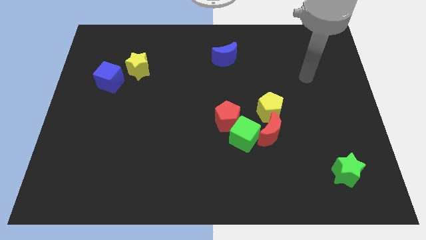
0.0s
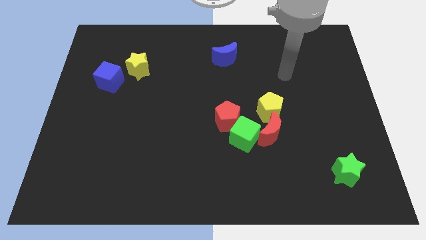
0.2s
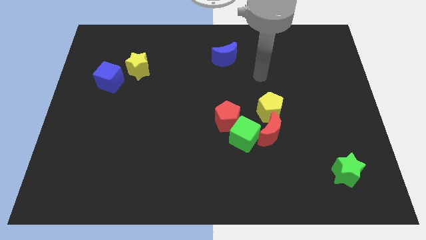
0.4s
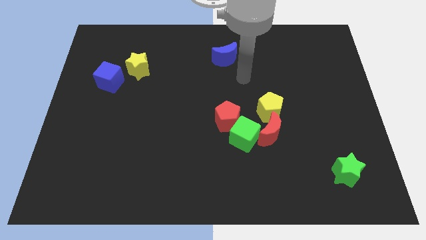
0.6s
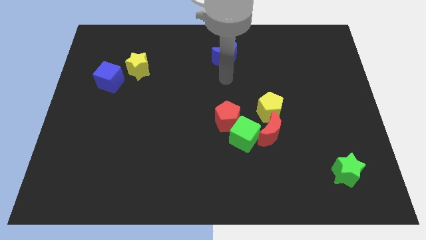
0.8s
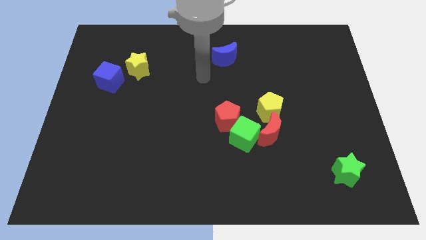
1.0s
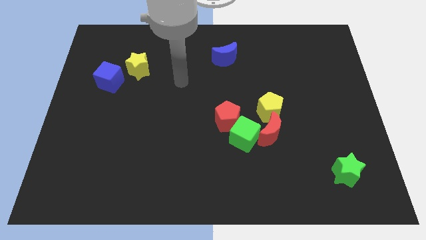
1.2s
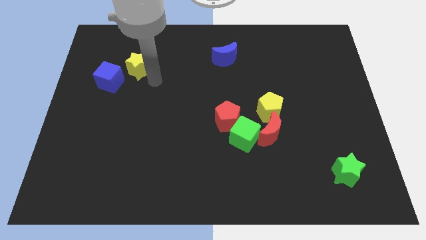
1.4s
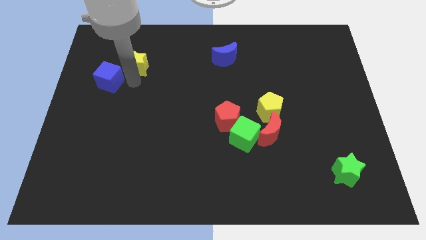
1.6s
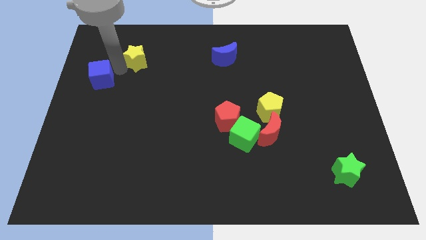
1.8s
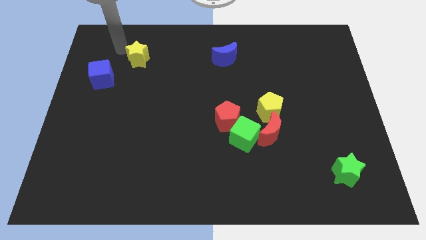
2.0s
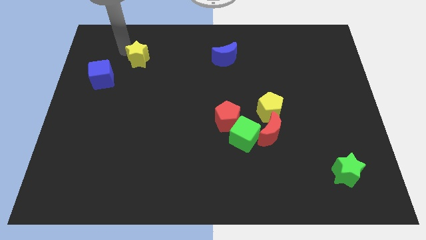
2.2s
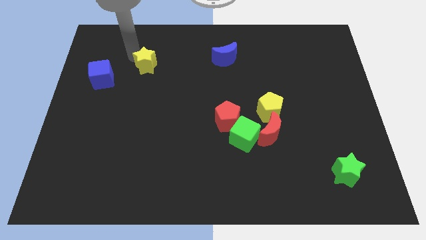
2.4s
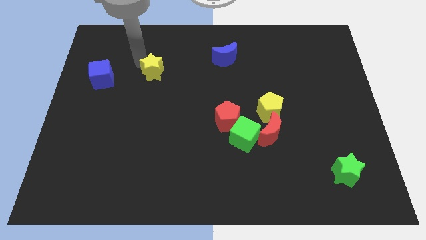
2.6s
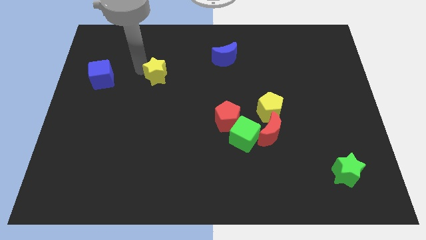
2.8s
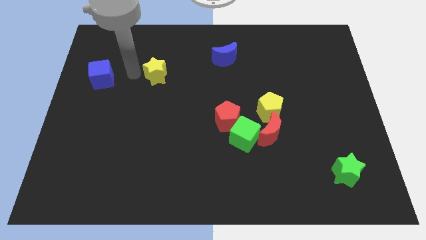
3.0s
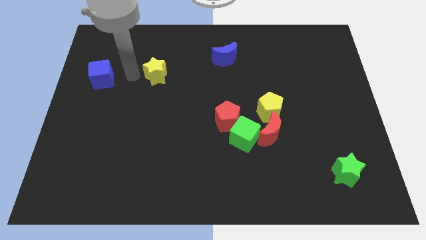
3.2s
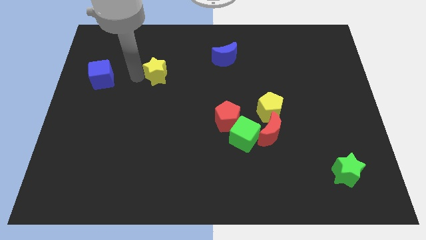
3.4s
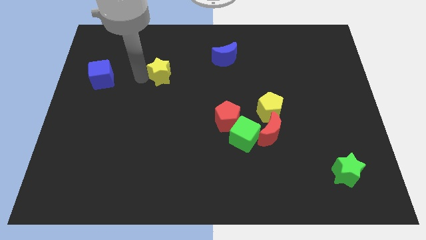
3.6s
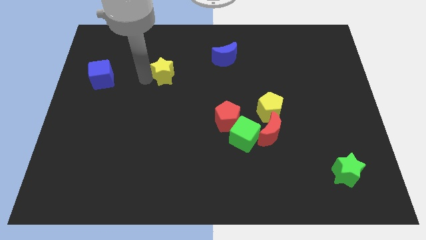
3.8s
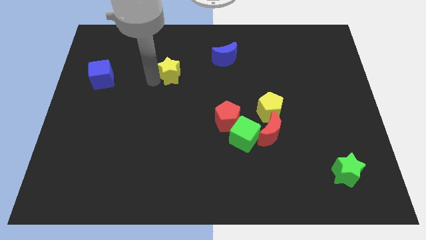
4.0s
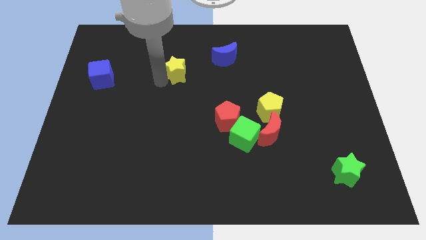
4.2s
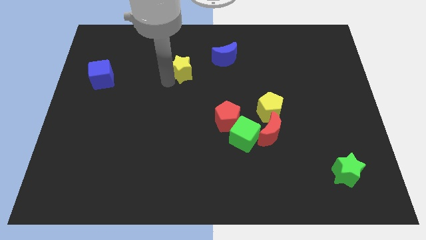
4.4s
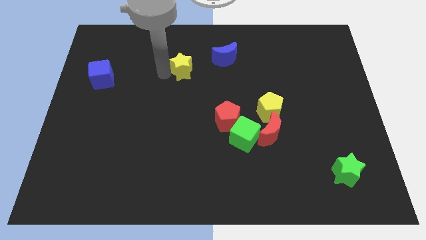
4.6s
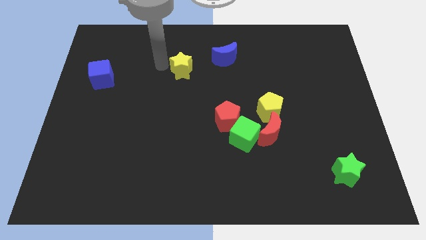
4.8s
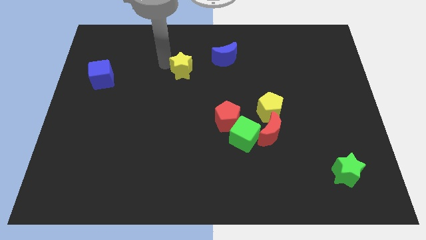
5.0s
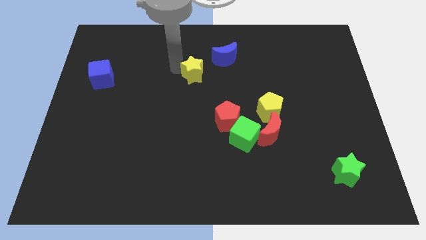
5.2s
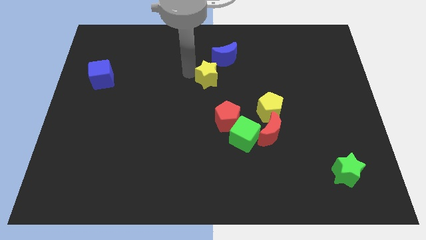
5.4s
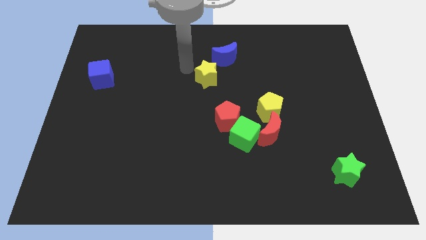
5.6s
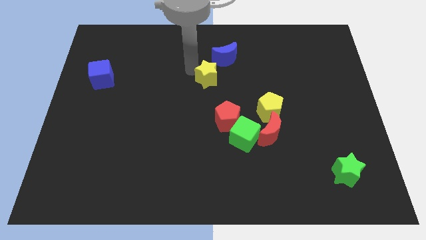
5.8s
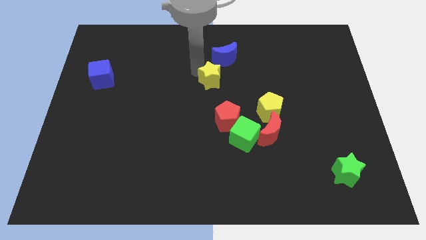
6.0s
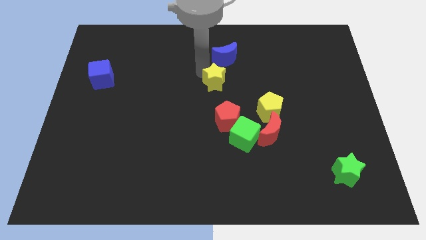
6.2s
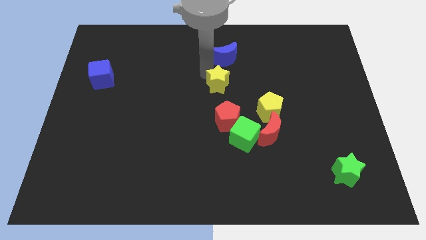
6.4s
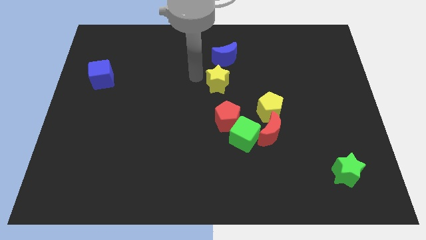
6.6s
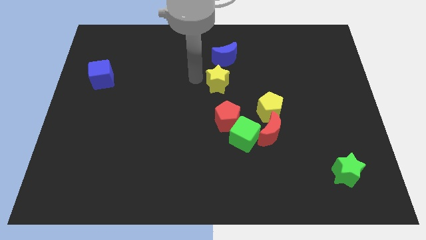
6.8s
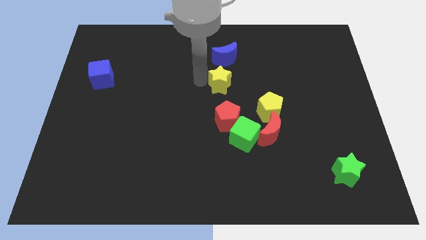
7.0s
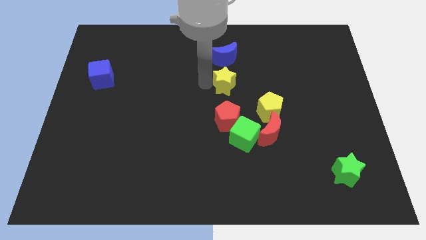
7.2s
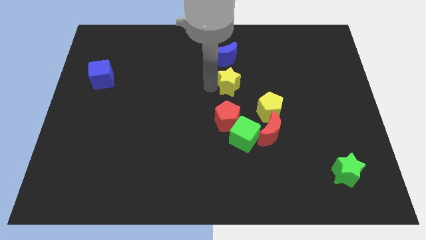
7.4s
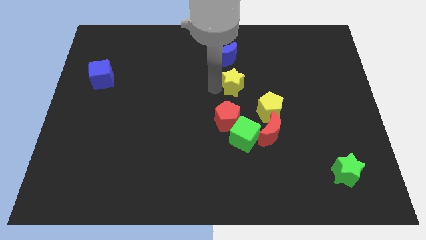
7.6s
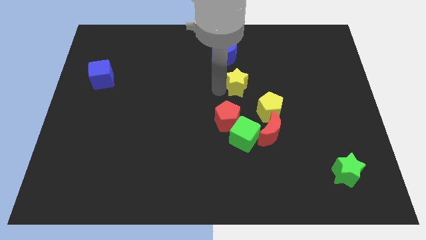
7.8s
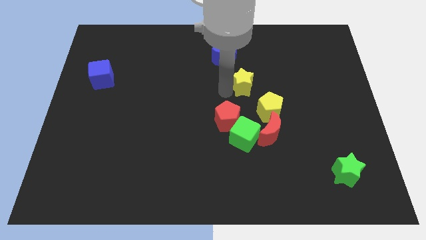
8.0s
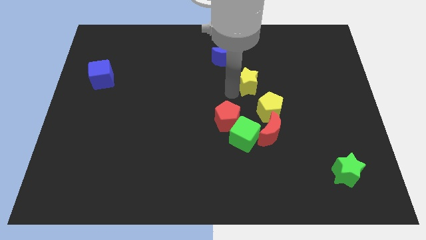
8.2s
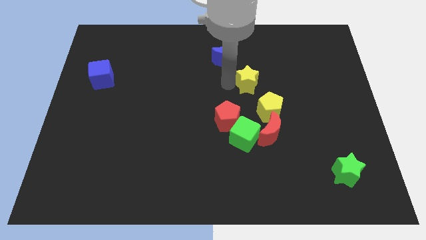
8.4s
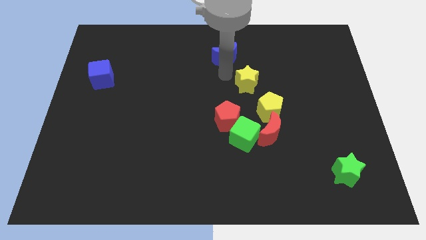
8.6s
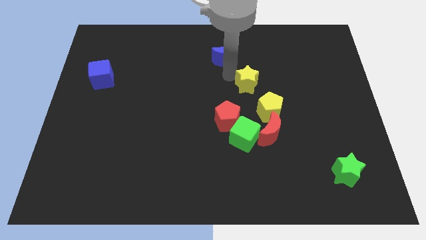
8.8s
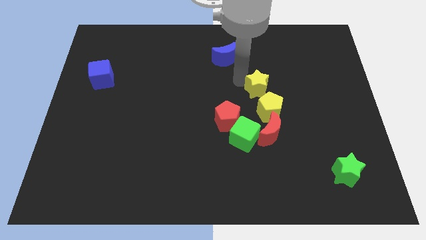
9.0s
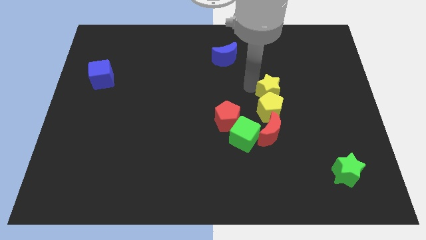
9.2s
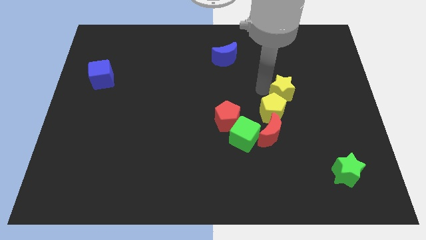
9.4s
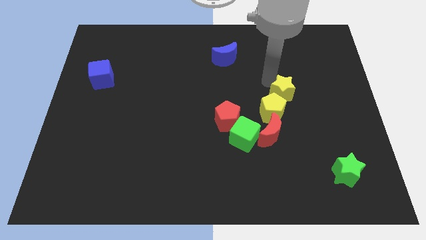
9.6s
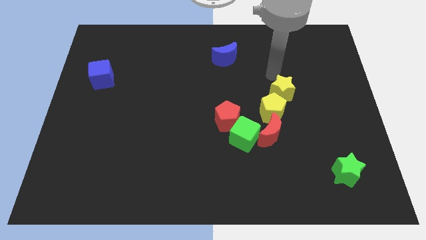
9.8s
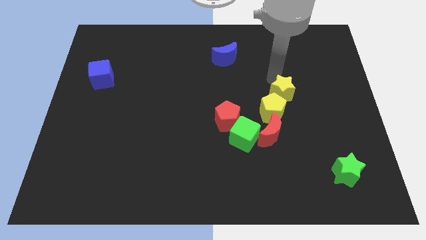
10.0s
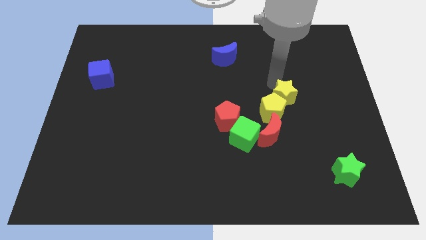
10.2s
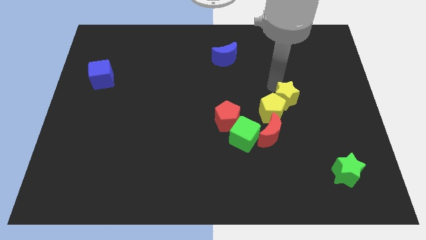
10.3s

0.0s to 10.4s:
push the yellow star diagonally up and to the right of the red moon

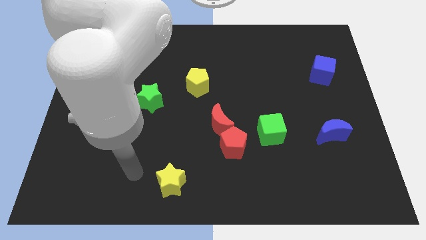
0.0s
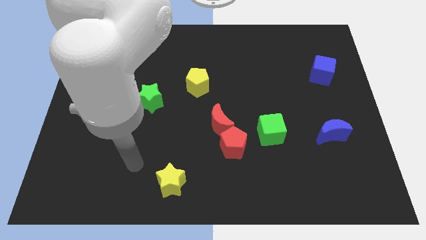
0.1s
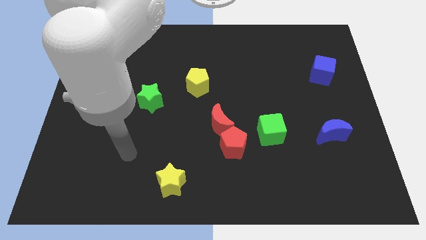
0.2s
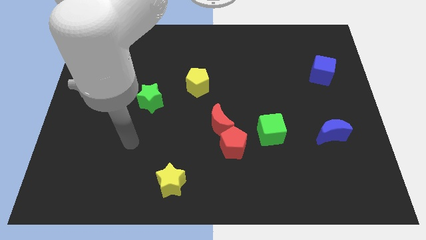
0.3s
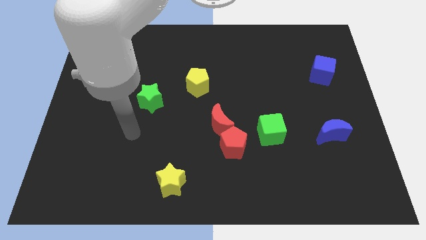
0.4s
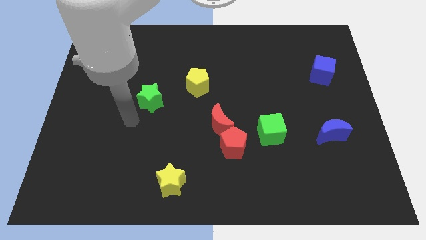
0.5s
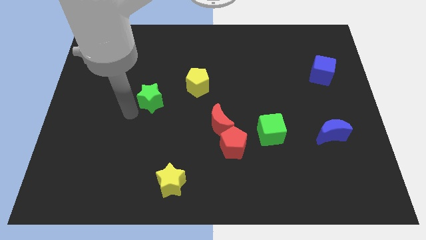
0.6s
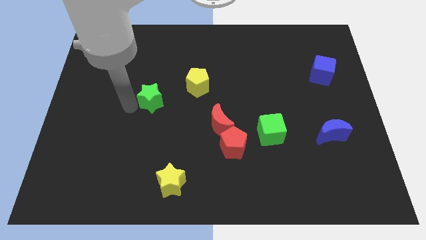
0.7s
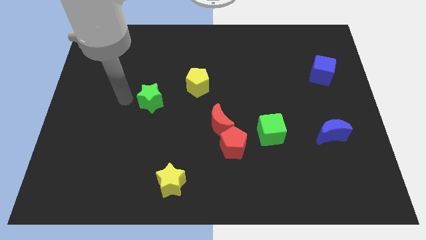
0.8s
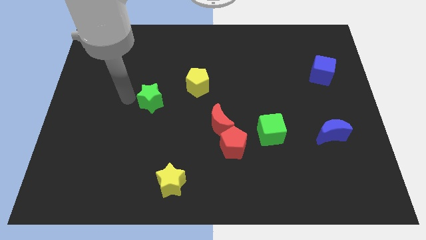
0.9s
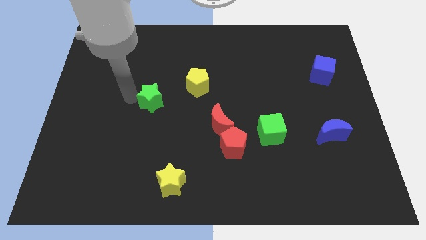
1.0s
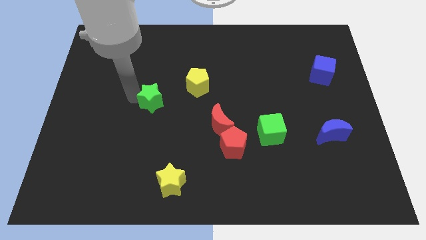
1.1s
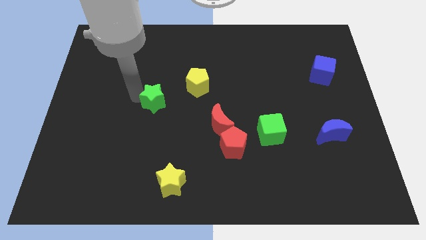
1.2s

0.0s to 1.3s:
put the green star diagonally down and to the left of the yellow pentagon

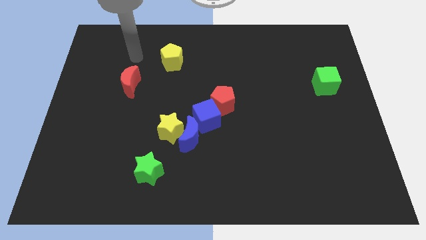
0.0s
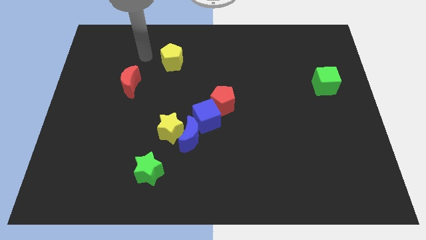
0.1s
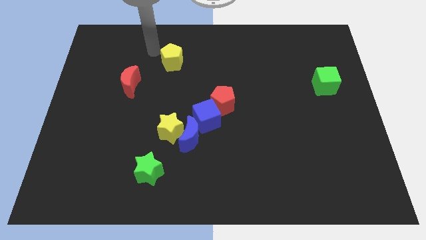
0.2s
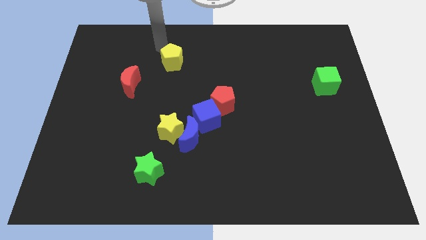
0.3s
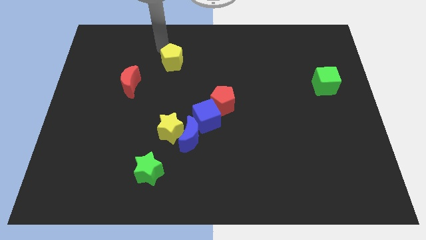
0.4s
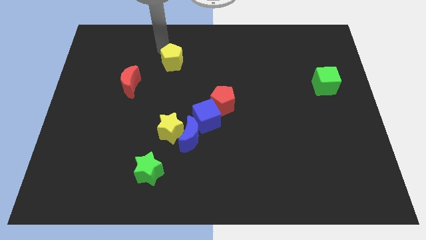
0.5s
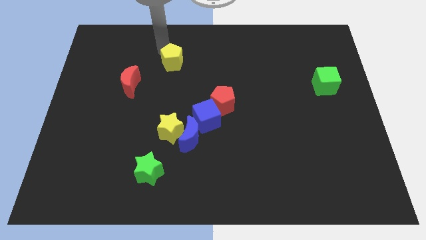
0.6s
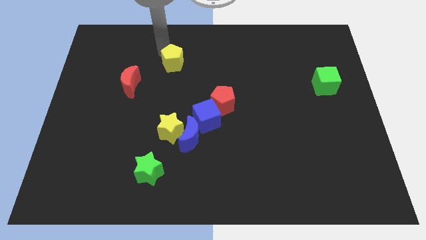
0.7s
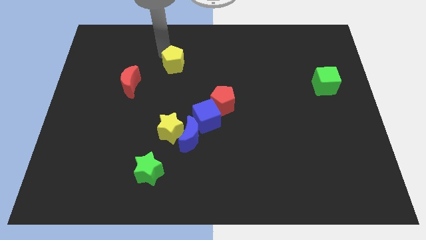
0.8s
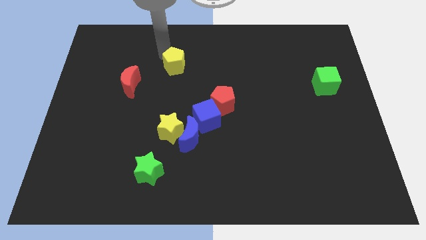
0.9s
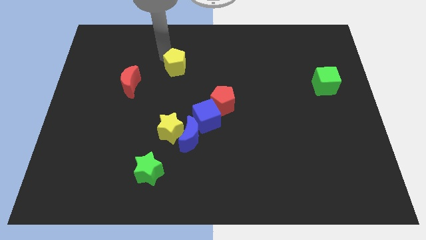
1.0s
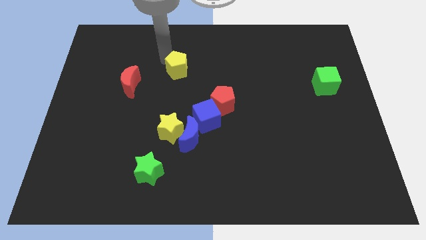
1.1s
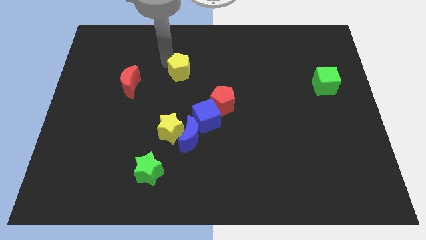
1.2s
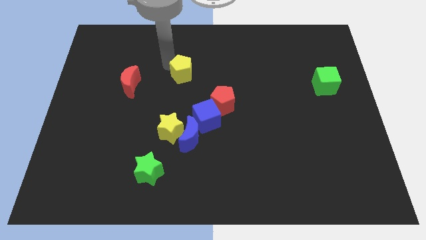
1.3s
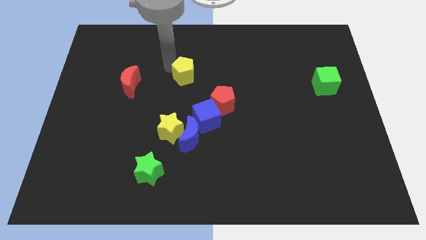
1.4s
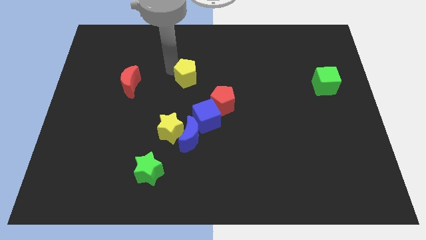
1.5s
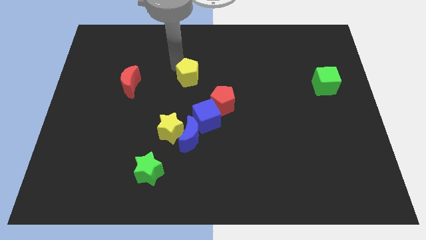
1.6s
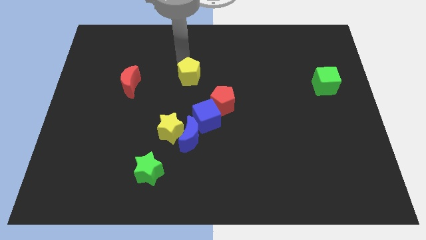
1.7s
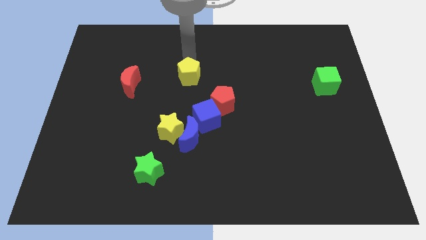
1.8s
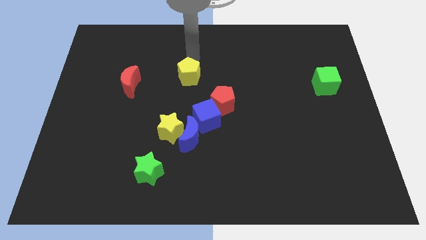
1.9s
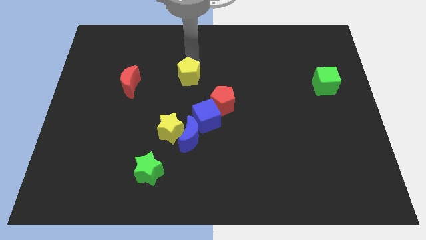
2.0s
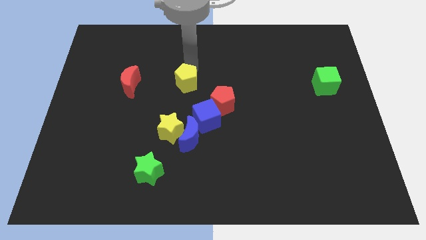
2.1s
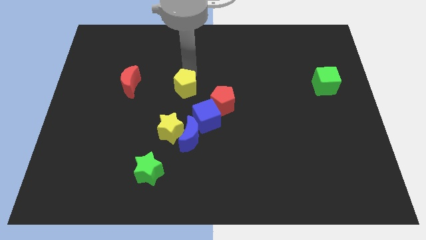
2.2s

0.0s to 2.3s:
move the yellow pentagon to the top left of the blue cube
